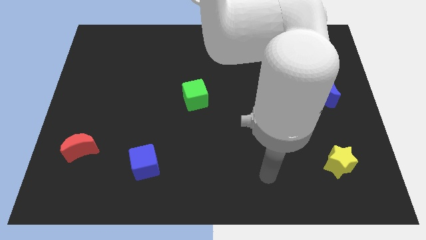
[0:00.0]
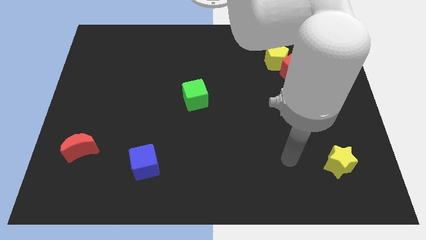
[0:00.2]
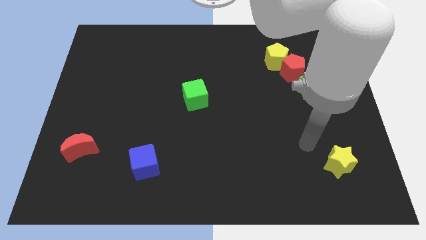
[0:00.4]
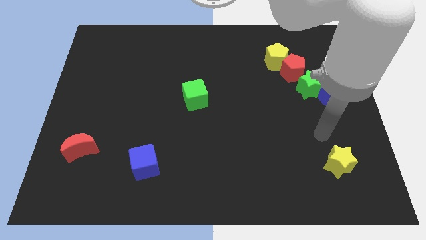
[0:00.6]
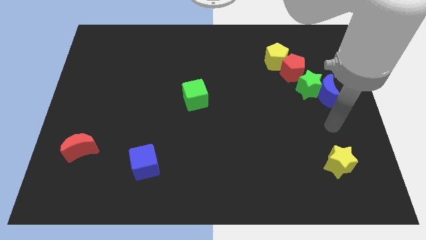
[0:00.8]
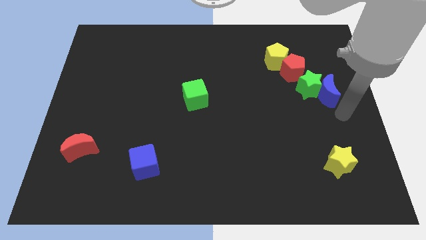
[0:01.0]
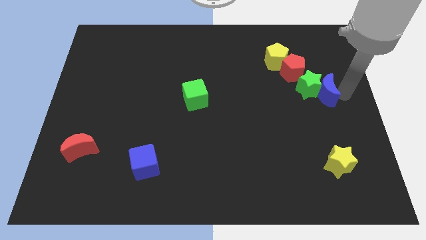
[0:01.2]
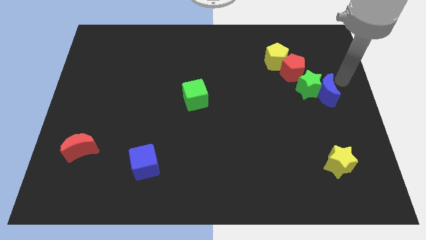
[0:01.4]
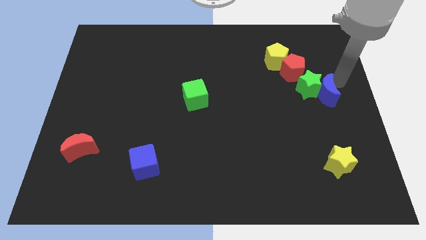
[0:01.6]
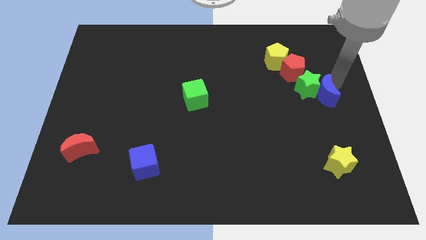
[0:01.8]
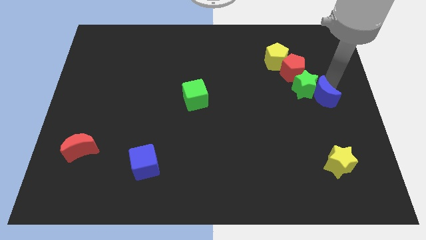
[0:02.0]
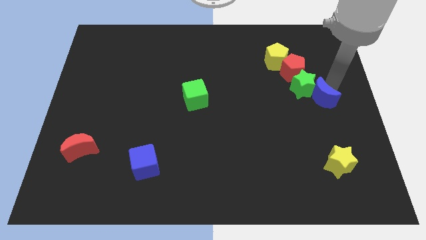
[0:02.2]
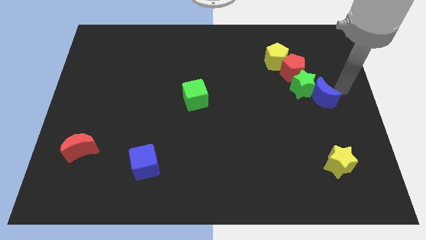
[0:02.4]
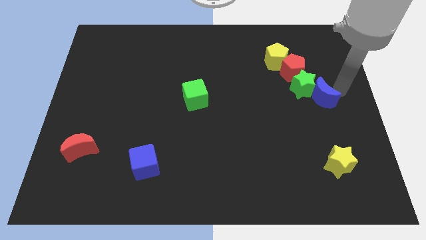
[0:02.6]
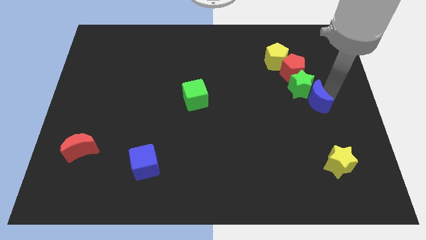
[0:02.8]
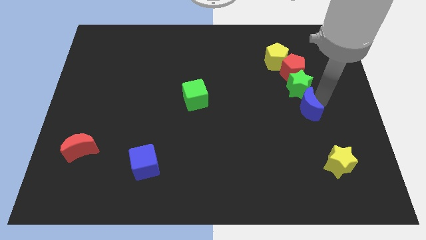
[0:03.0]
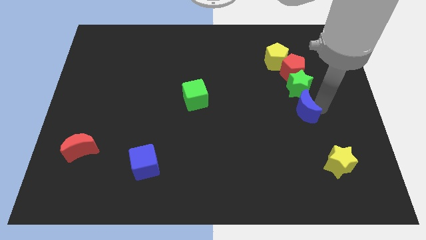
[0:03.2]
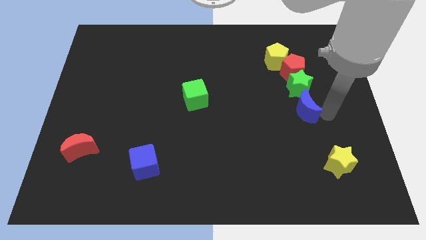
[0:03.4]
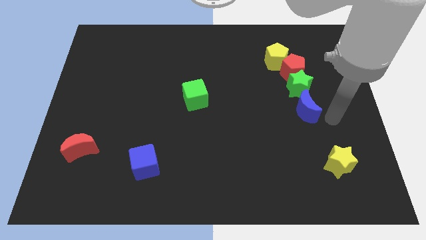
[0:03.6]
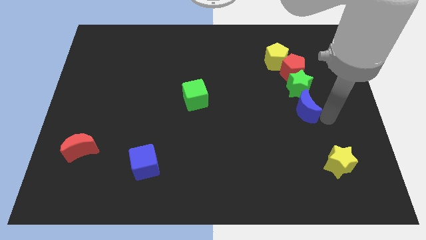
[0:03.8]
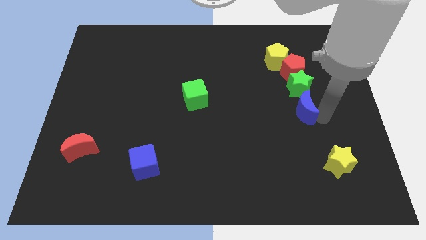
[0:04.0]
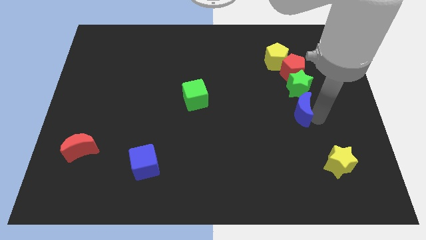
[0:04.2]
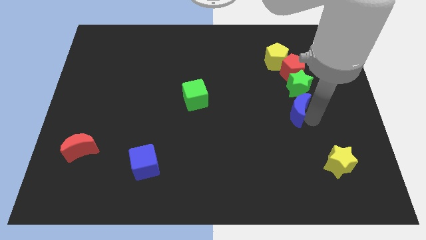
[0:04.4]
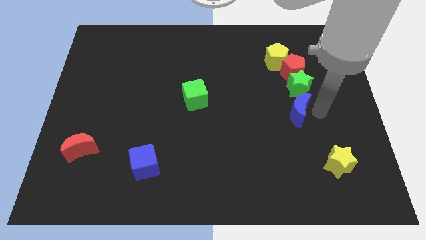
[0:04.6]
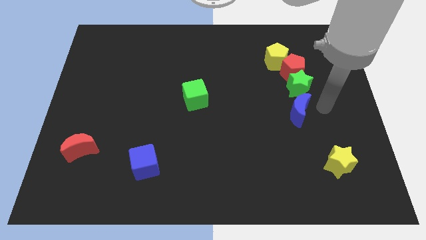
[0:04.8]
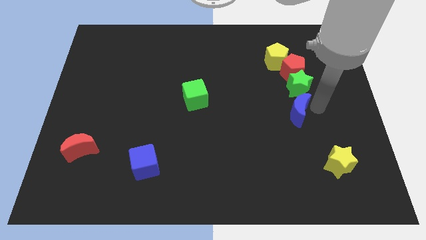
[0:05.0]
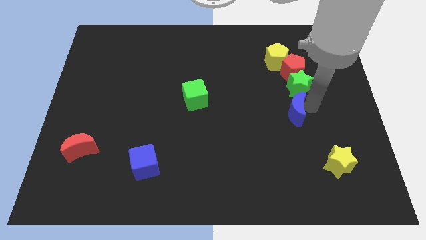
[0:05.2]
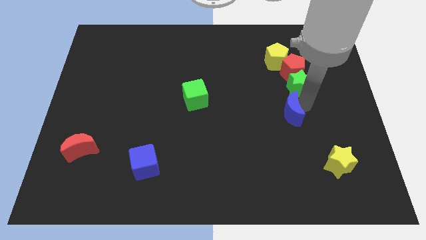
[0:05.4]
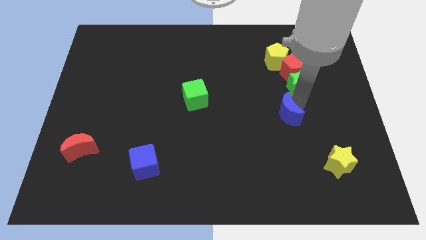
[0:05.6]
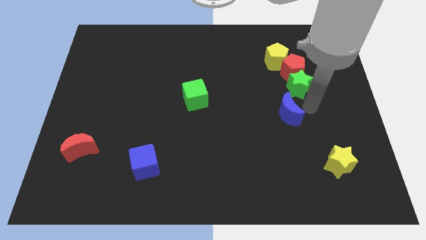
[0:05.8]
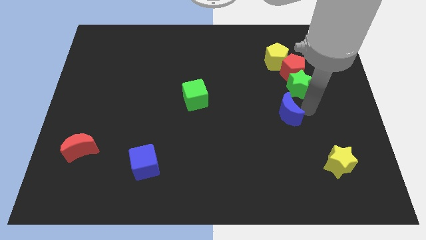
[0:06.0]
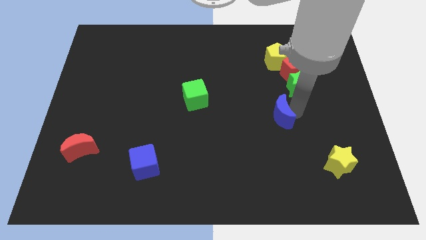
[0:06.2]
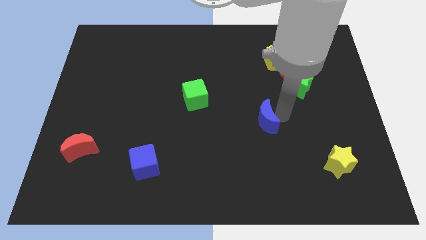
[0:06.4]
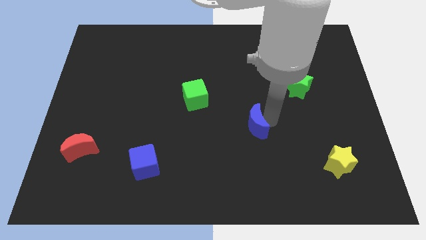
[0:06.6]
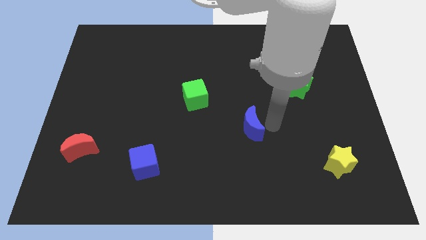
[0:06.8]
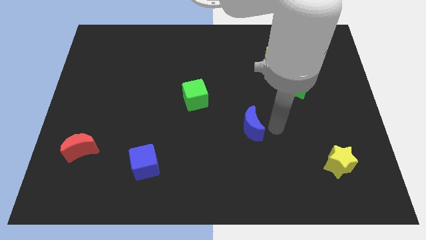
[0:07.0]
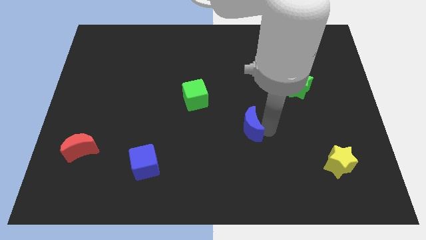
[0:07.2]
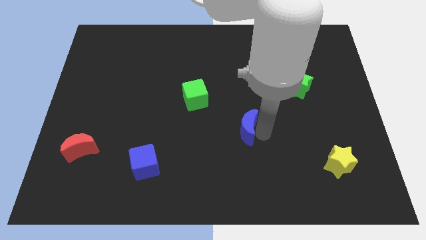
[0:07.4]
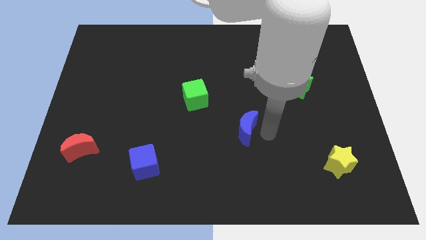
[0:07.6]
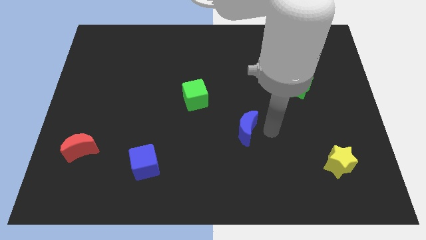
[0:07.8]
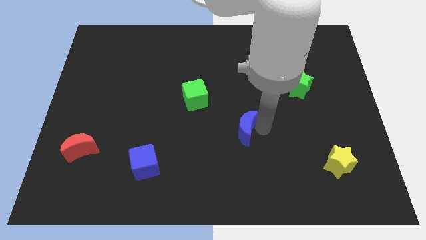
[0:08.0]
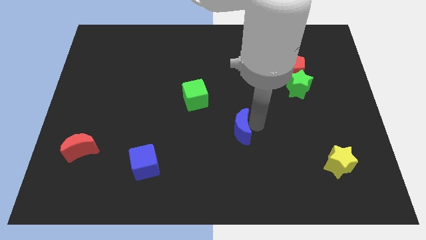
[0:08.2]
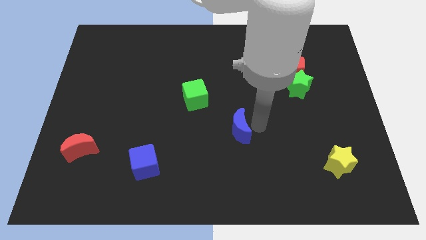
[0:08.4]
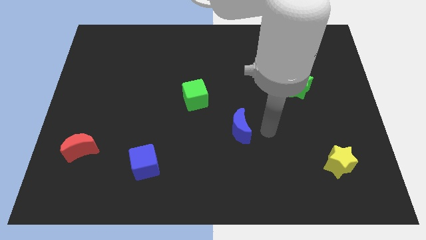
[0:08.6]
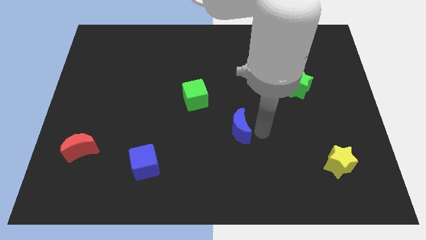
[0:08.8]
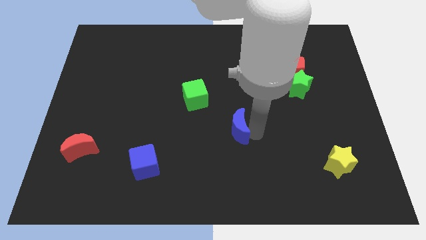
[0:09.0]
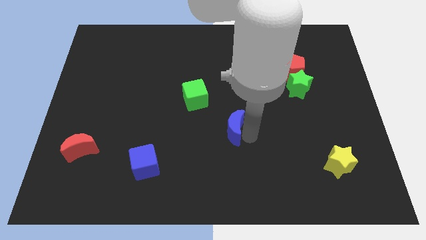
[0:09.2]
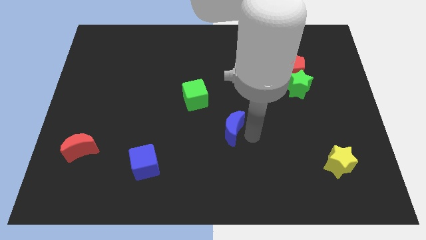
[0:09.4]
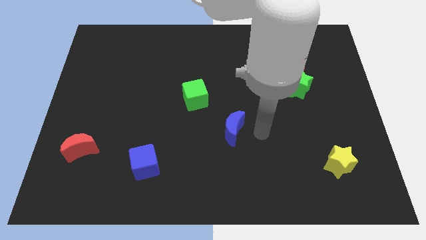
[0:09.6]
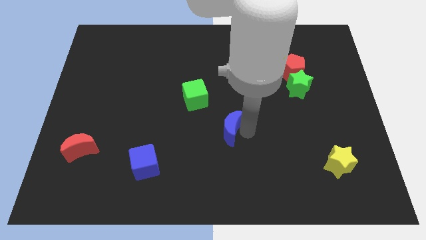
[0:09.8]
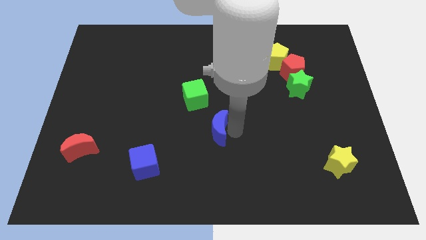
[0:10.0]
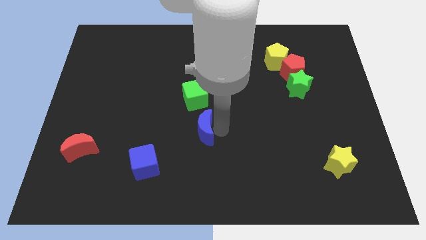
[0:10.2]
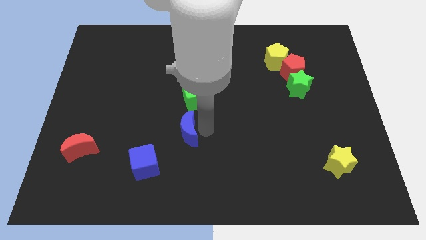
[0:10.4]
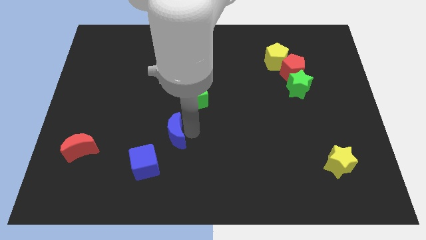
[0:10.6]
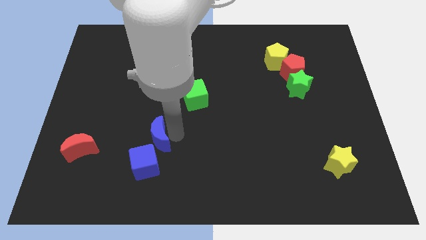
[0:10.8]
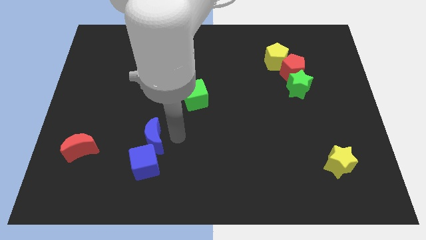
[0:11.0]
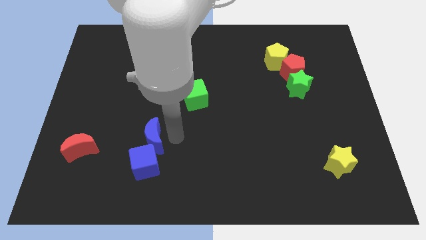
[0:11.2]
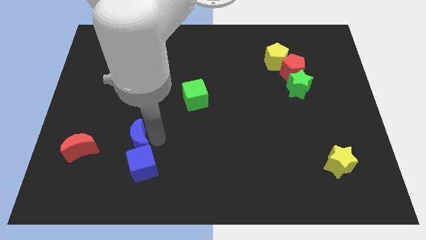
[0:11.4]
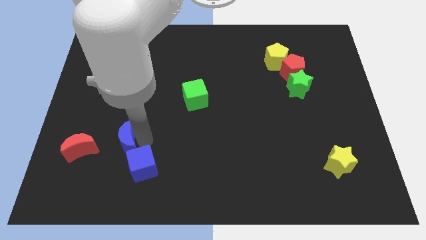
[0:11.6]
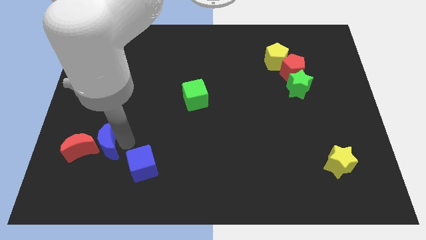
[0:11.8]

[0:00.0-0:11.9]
move the blue moon to the red moon

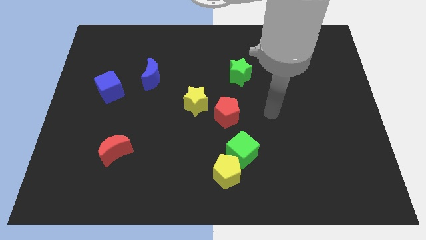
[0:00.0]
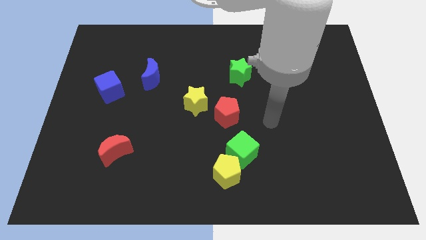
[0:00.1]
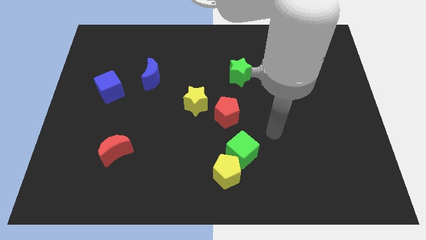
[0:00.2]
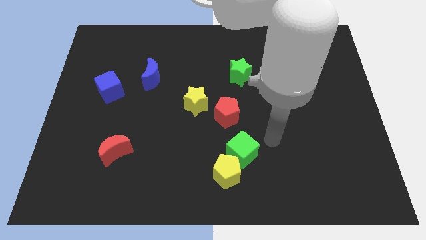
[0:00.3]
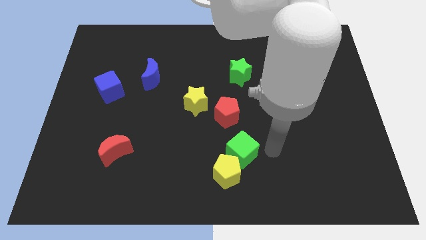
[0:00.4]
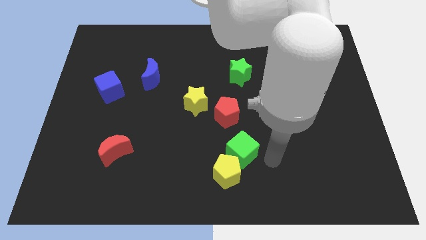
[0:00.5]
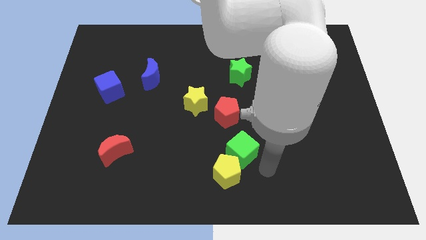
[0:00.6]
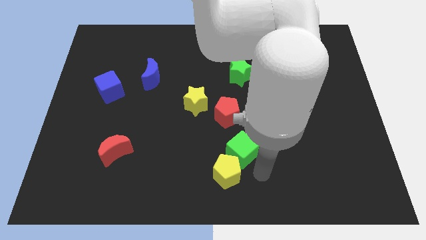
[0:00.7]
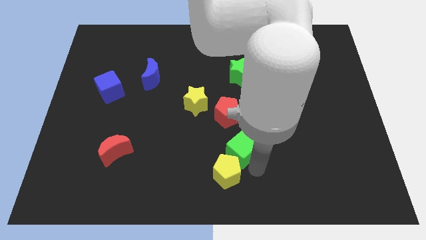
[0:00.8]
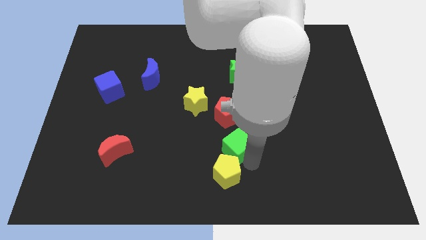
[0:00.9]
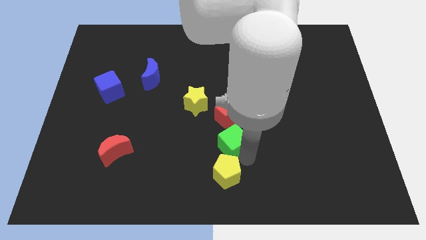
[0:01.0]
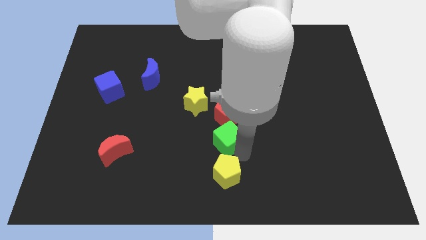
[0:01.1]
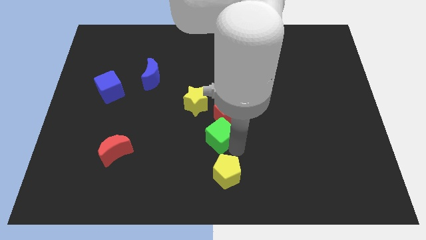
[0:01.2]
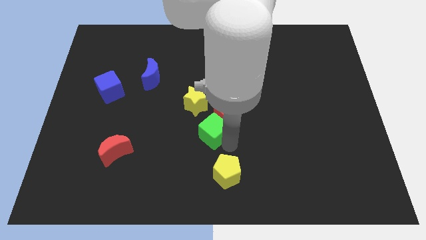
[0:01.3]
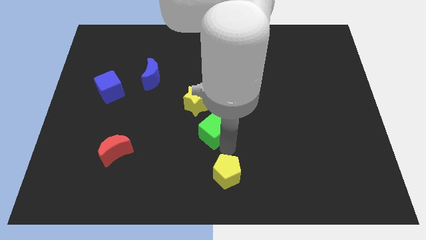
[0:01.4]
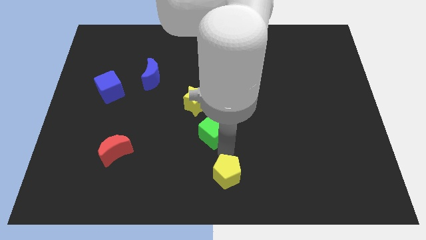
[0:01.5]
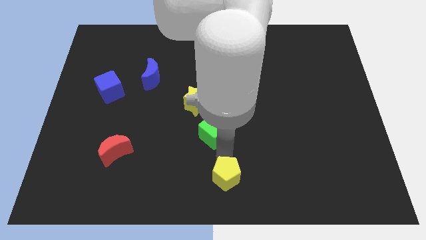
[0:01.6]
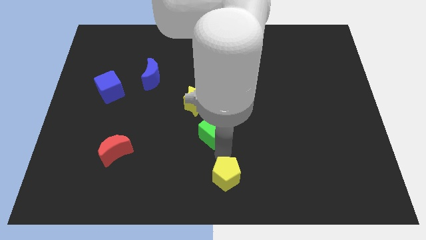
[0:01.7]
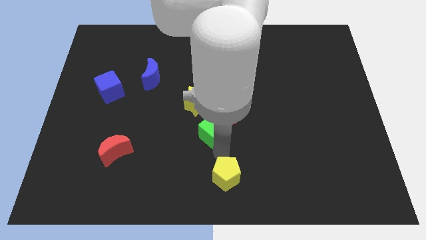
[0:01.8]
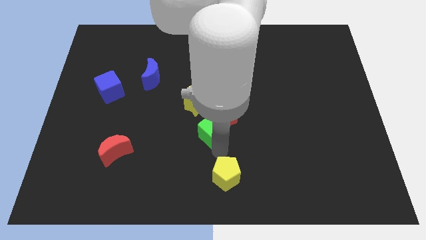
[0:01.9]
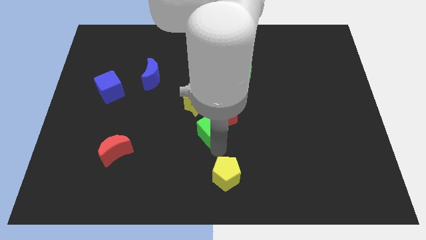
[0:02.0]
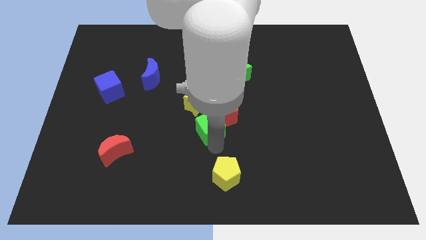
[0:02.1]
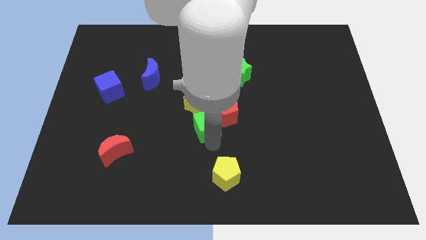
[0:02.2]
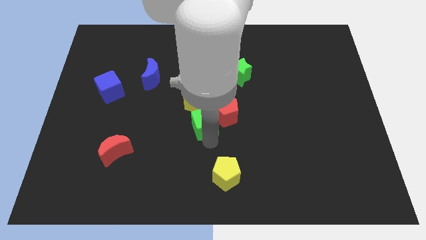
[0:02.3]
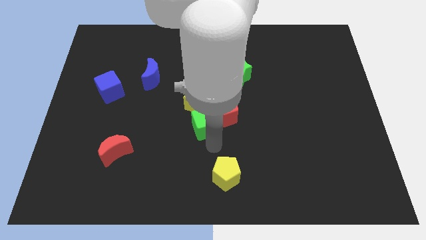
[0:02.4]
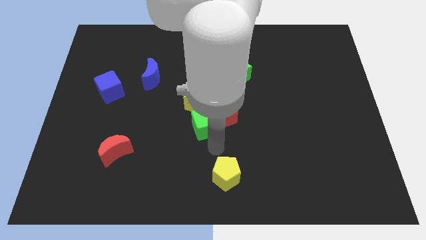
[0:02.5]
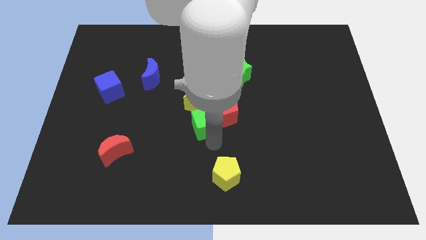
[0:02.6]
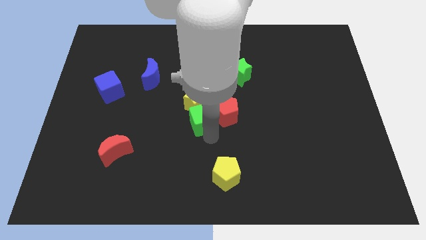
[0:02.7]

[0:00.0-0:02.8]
put the green cube close to the yellow star
